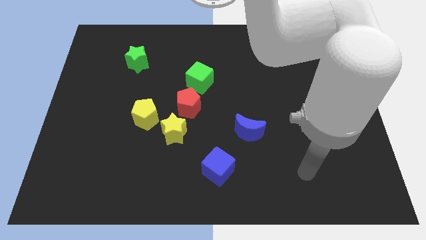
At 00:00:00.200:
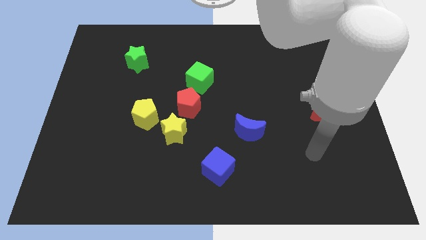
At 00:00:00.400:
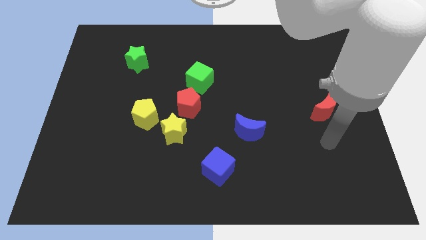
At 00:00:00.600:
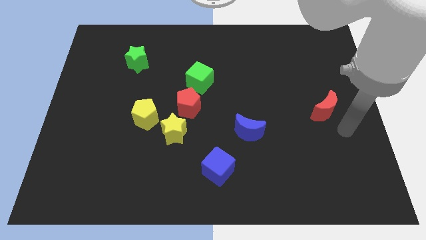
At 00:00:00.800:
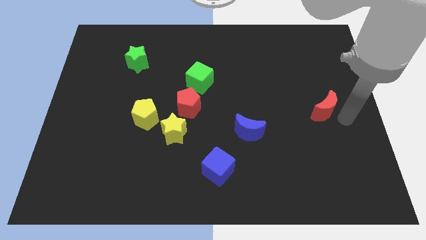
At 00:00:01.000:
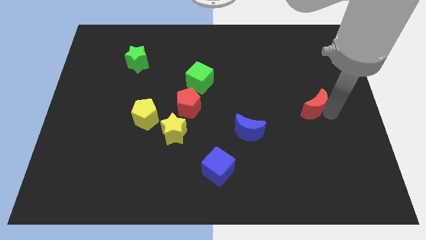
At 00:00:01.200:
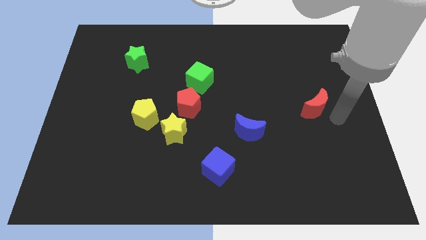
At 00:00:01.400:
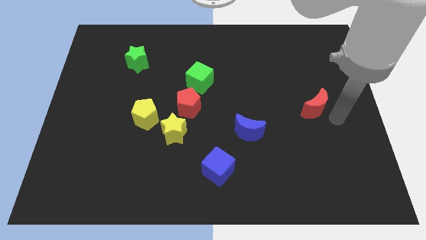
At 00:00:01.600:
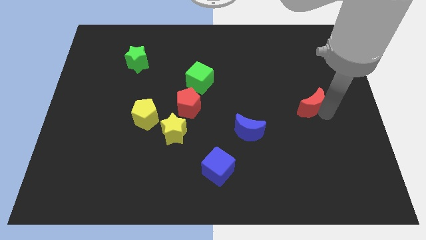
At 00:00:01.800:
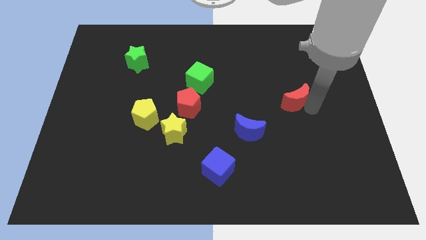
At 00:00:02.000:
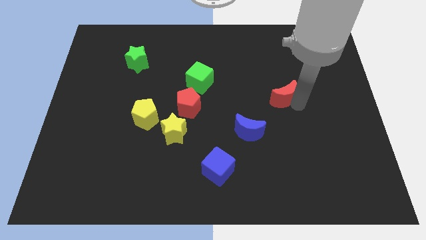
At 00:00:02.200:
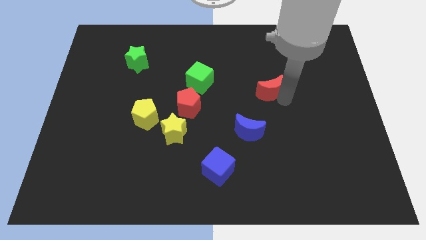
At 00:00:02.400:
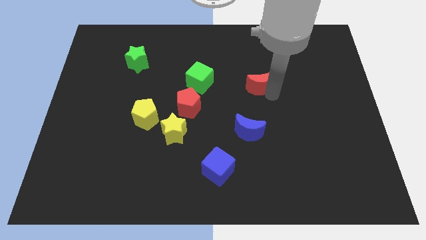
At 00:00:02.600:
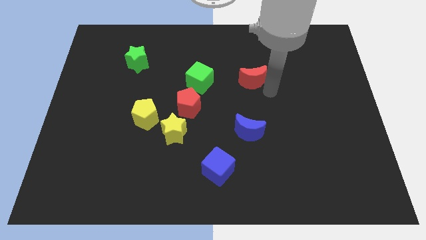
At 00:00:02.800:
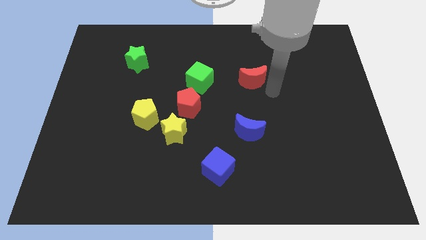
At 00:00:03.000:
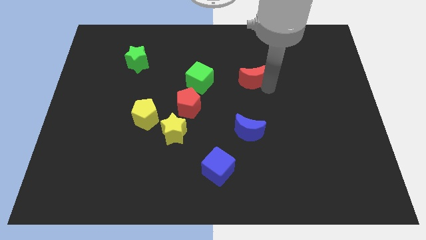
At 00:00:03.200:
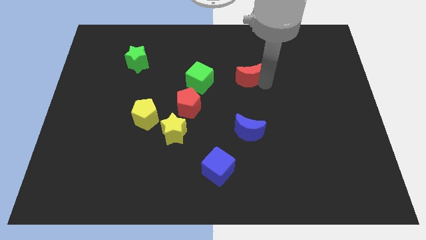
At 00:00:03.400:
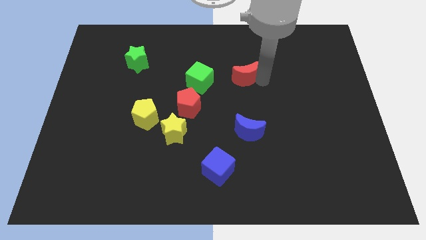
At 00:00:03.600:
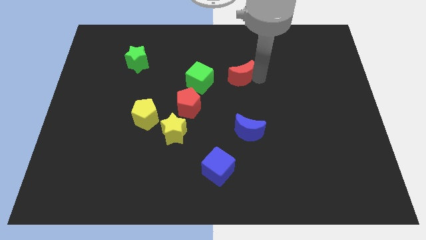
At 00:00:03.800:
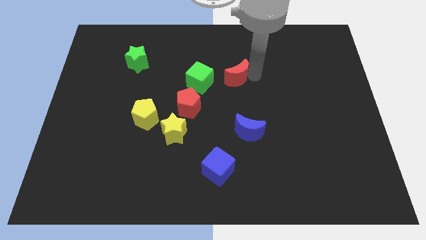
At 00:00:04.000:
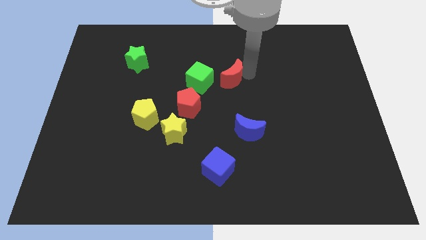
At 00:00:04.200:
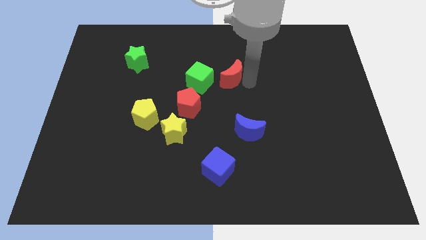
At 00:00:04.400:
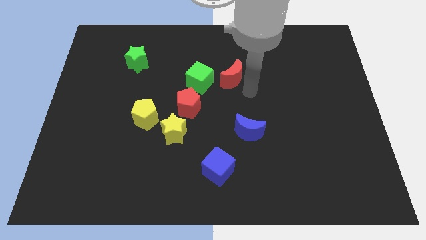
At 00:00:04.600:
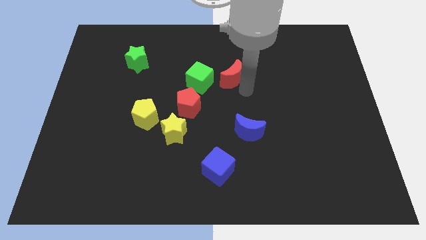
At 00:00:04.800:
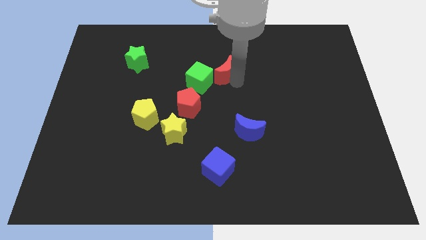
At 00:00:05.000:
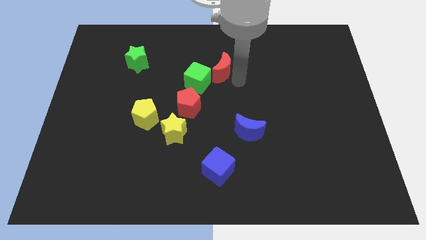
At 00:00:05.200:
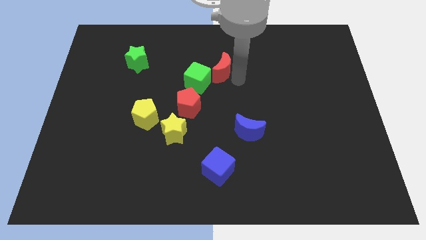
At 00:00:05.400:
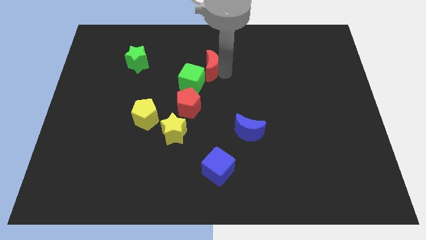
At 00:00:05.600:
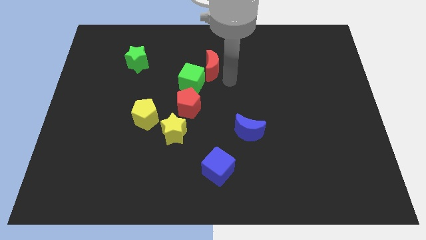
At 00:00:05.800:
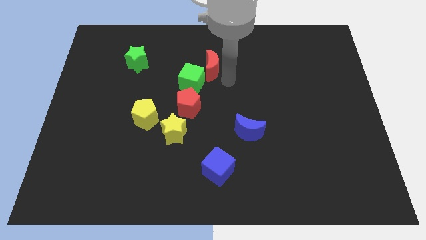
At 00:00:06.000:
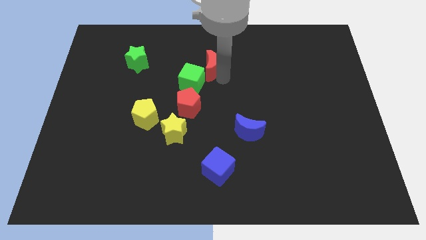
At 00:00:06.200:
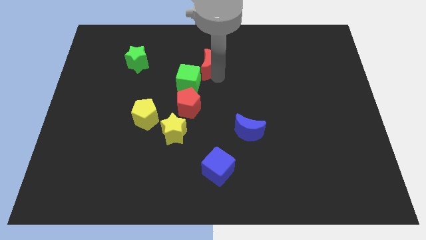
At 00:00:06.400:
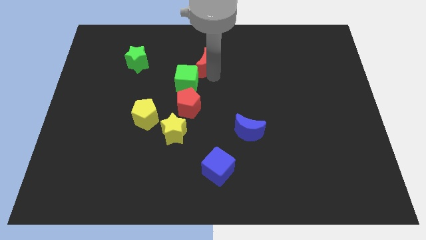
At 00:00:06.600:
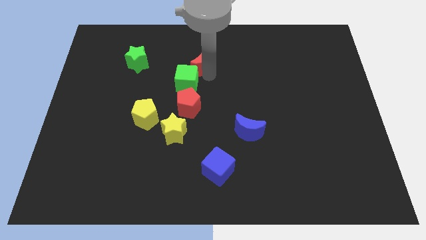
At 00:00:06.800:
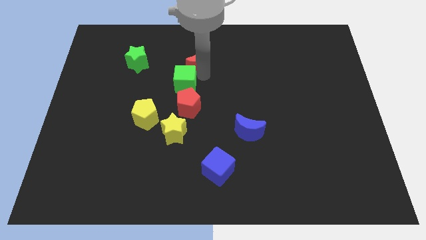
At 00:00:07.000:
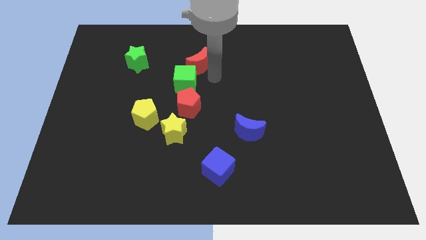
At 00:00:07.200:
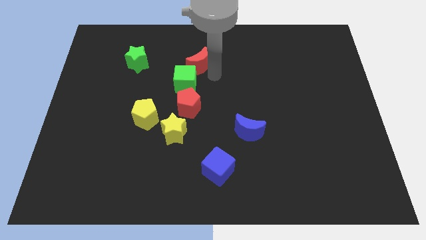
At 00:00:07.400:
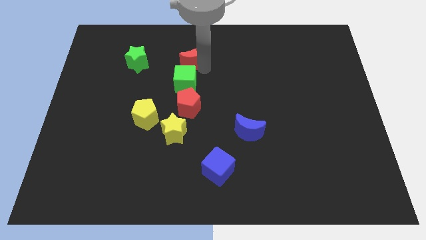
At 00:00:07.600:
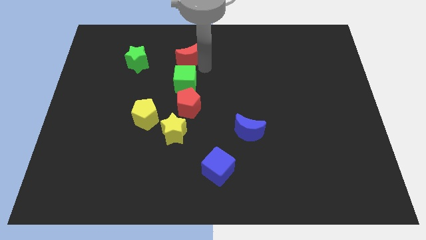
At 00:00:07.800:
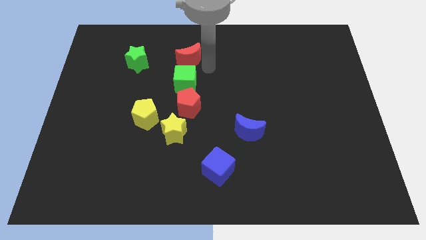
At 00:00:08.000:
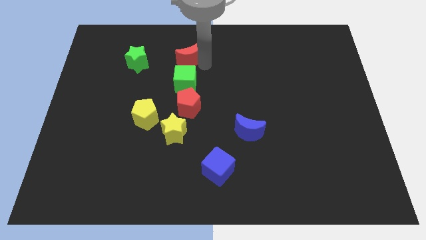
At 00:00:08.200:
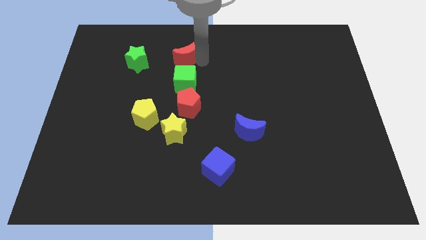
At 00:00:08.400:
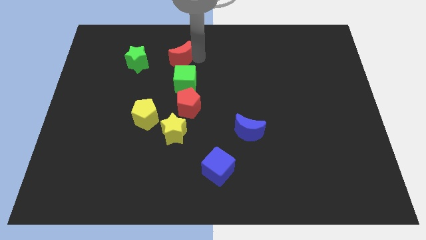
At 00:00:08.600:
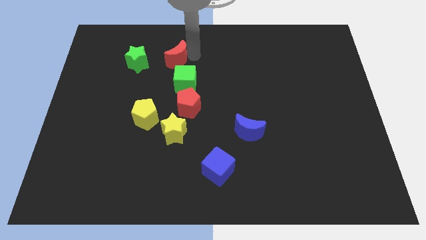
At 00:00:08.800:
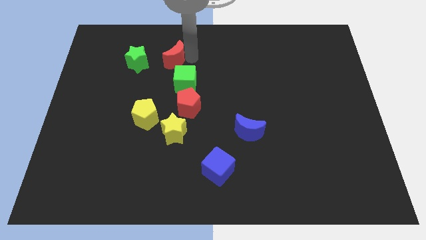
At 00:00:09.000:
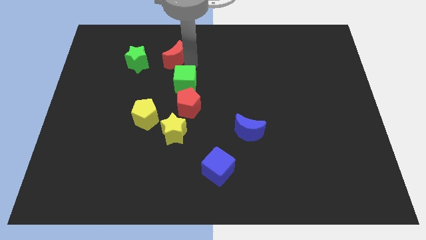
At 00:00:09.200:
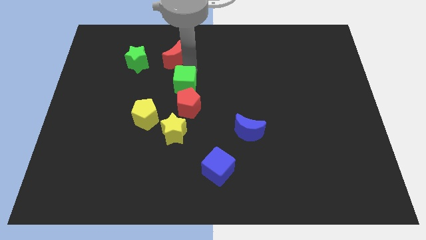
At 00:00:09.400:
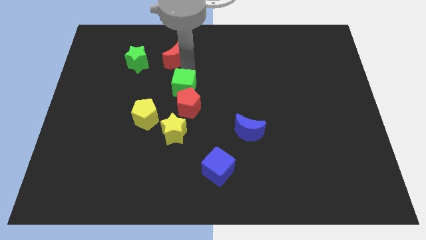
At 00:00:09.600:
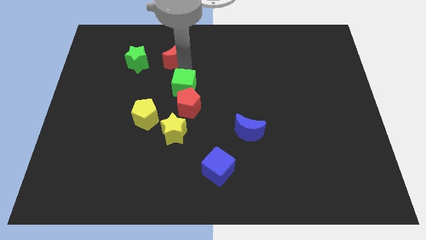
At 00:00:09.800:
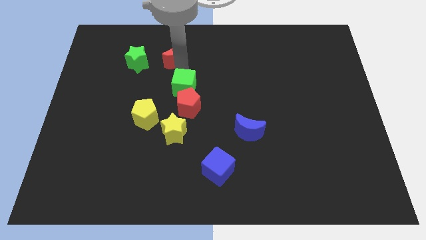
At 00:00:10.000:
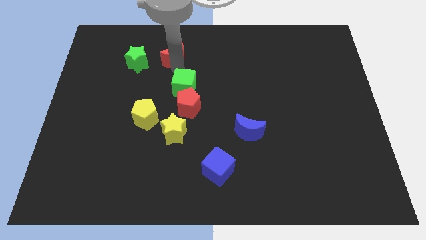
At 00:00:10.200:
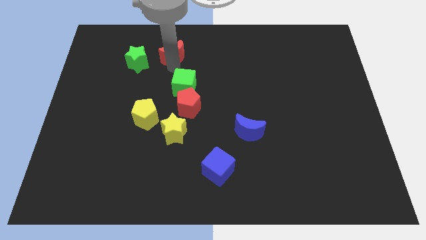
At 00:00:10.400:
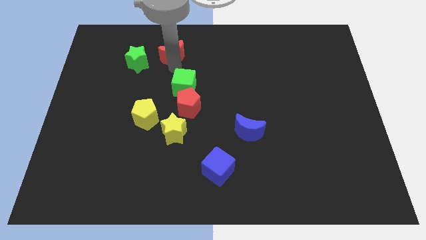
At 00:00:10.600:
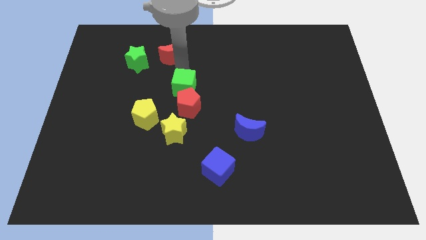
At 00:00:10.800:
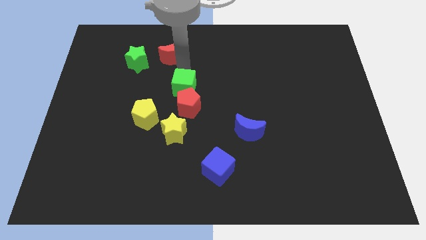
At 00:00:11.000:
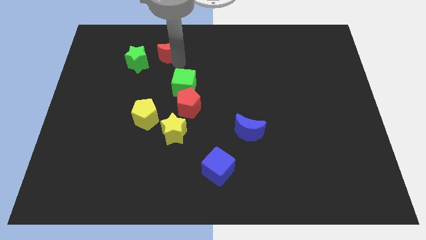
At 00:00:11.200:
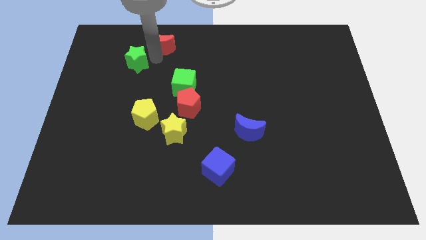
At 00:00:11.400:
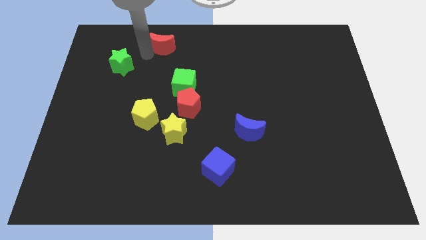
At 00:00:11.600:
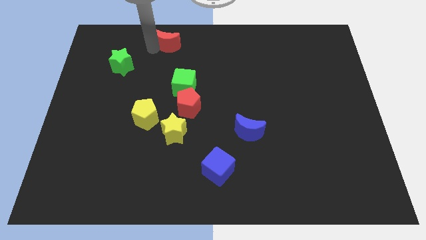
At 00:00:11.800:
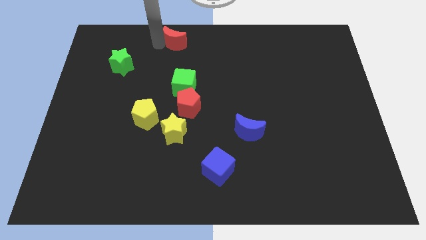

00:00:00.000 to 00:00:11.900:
move the red moon to the top side
